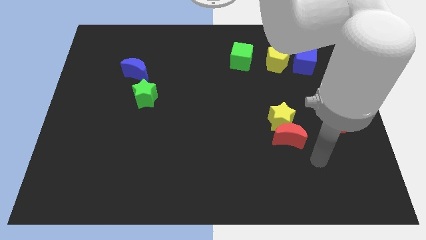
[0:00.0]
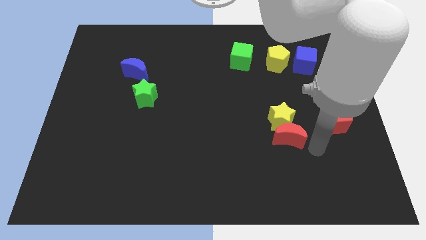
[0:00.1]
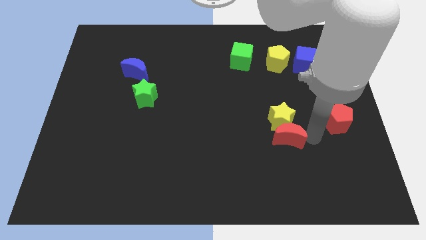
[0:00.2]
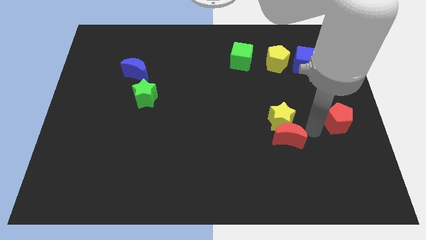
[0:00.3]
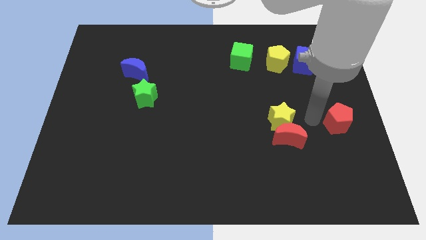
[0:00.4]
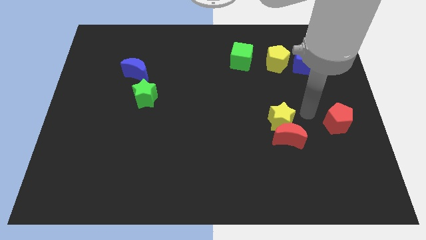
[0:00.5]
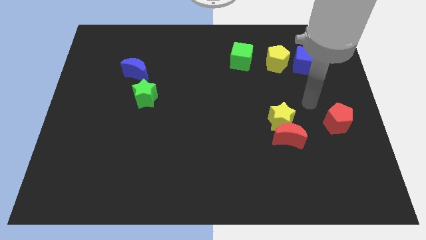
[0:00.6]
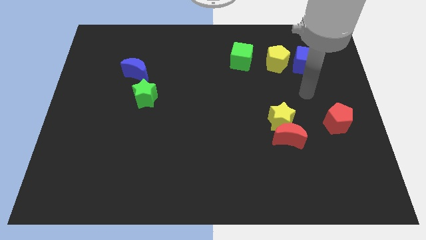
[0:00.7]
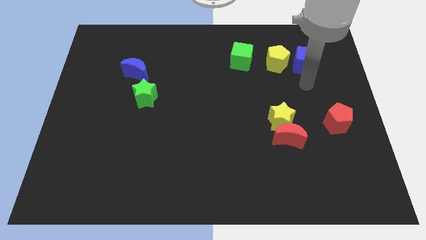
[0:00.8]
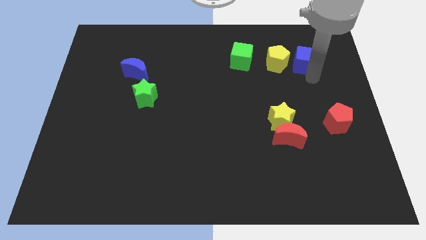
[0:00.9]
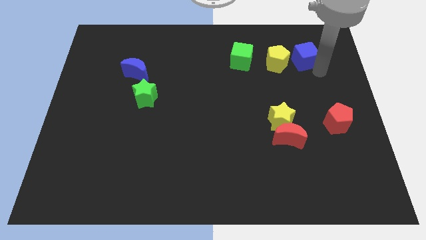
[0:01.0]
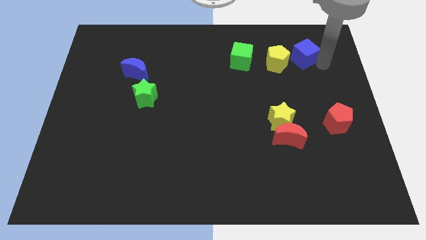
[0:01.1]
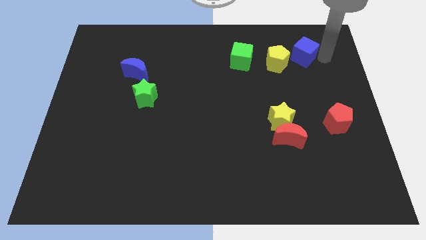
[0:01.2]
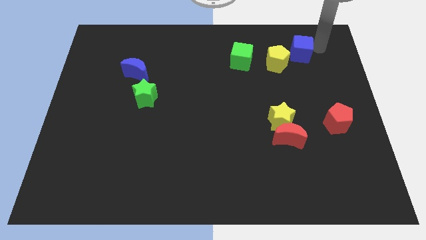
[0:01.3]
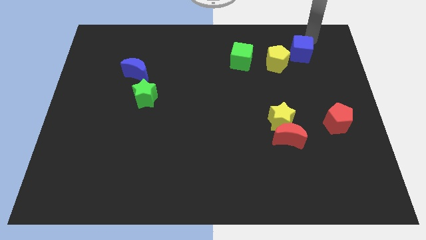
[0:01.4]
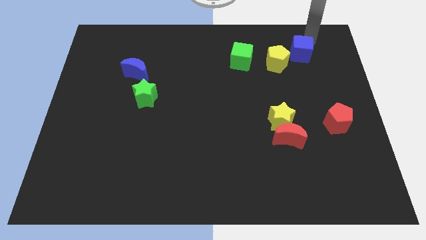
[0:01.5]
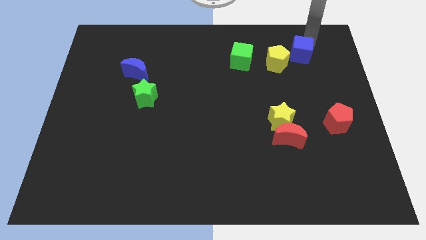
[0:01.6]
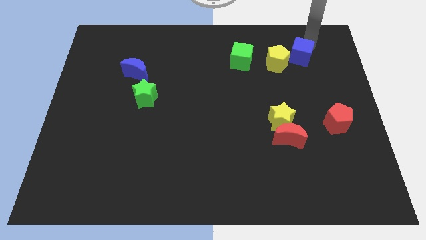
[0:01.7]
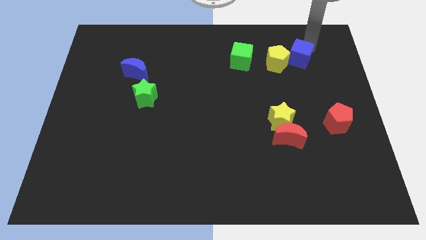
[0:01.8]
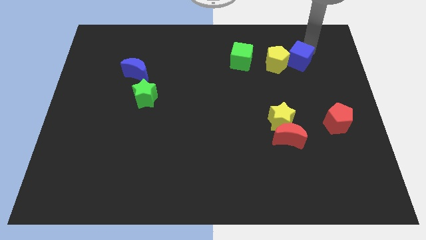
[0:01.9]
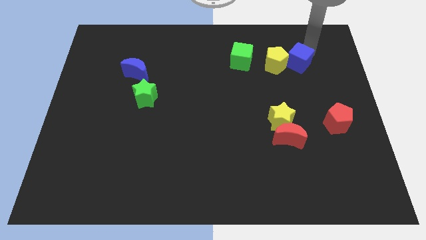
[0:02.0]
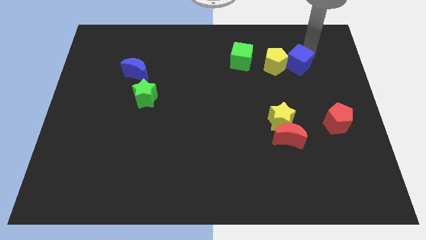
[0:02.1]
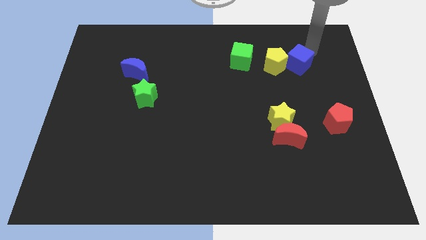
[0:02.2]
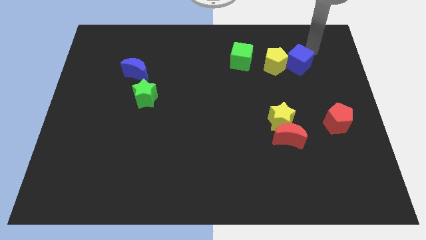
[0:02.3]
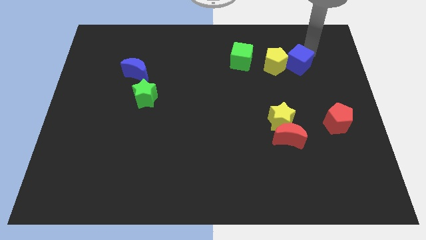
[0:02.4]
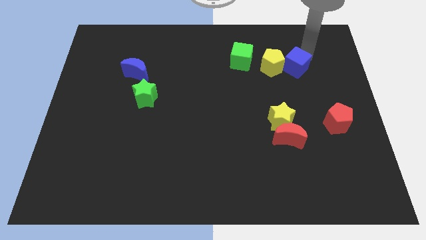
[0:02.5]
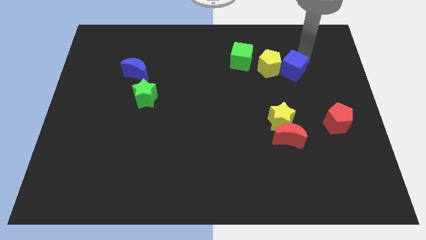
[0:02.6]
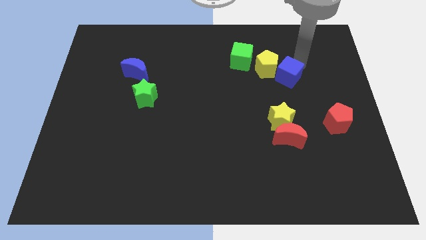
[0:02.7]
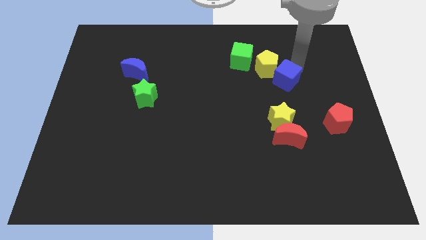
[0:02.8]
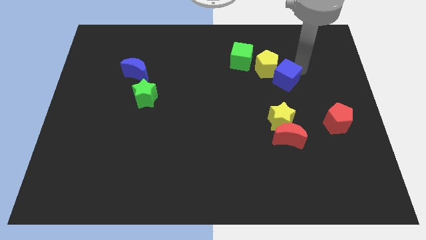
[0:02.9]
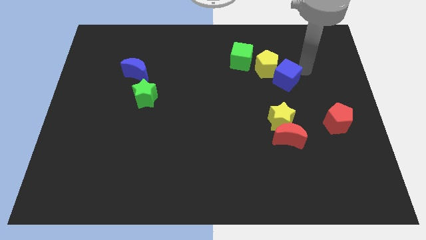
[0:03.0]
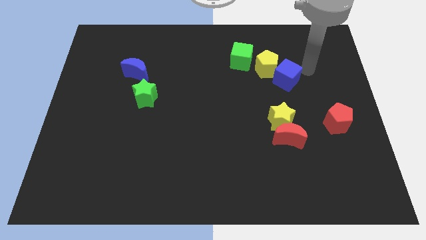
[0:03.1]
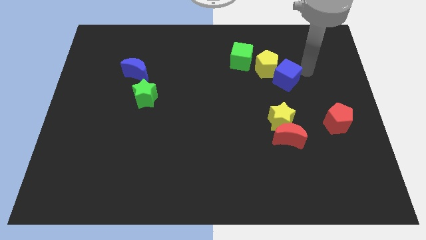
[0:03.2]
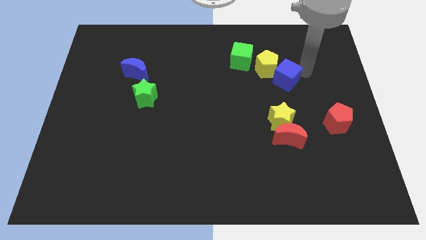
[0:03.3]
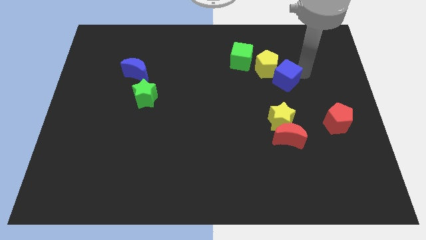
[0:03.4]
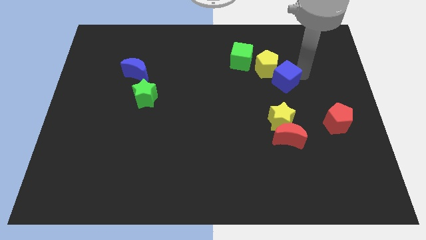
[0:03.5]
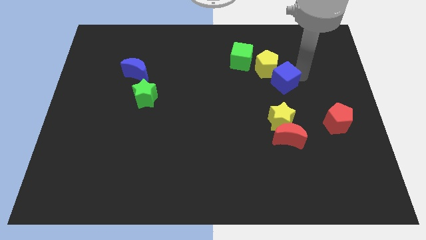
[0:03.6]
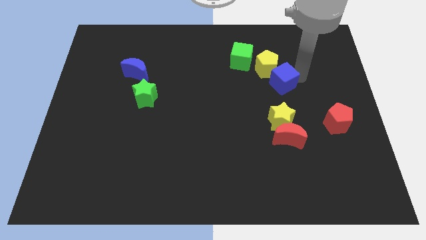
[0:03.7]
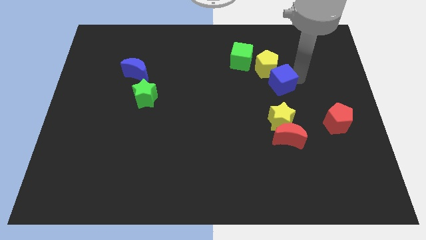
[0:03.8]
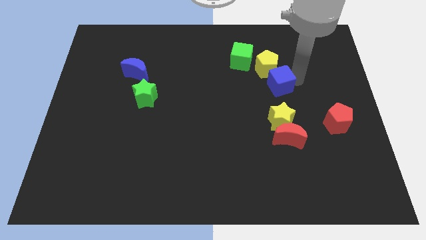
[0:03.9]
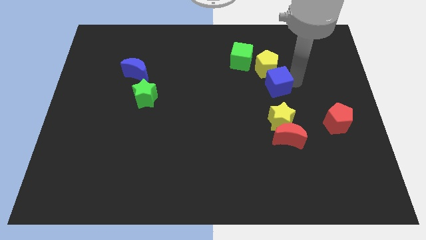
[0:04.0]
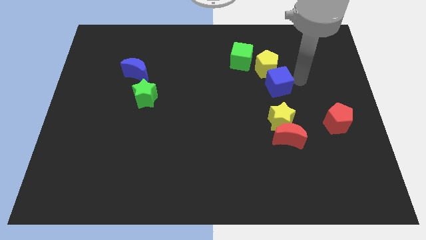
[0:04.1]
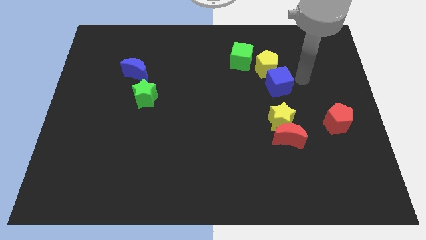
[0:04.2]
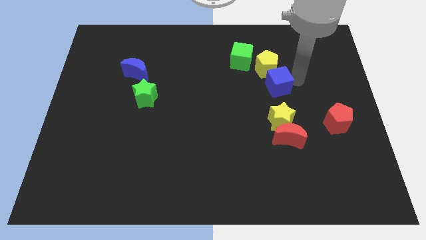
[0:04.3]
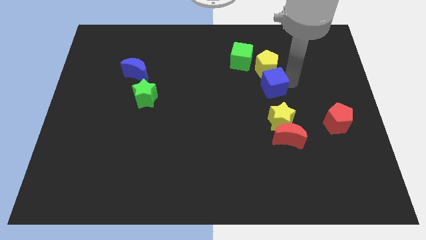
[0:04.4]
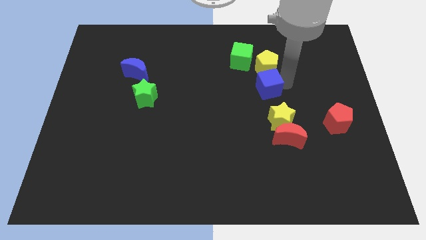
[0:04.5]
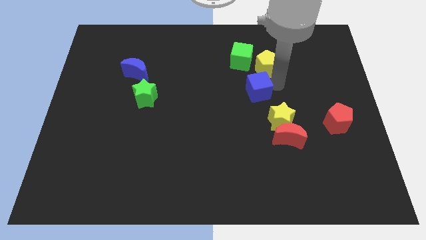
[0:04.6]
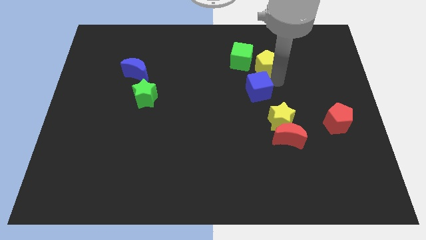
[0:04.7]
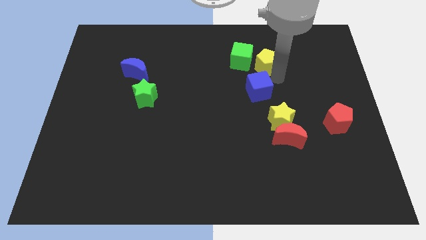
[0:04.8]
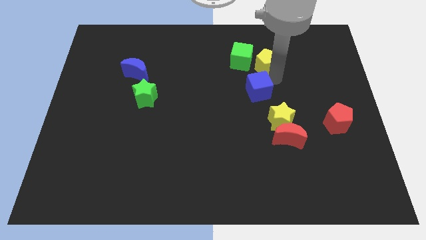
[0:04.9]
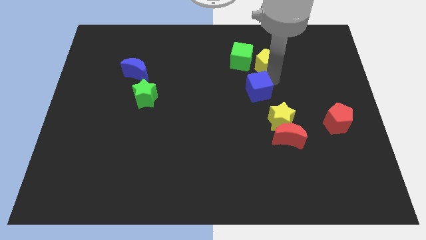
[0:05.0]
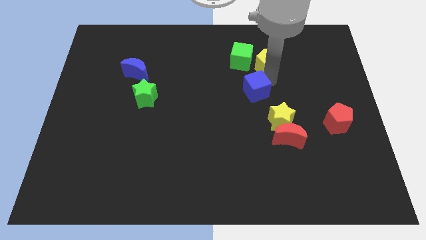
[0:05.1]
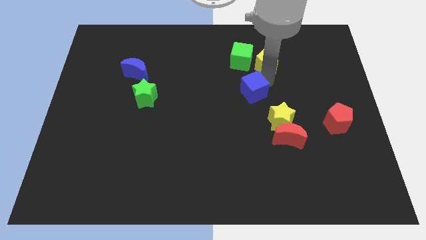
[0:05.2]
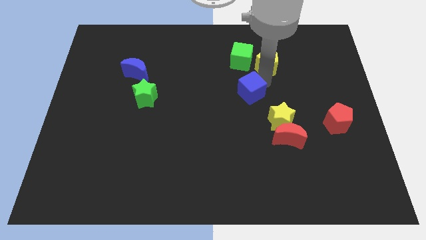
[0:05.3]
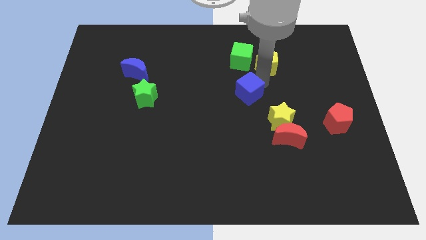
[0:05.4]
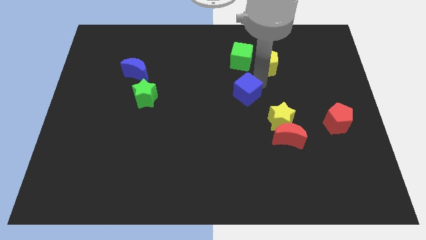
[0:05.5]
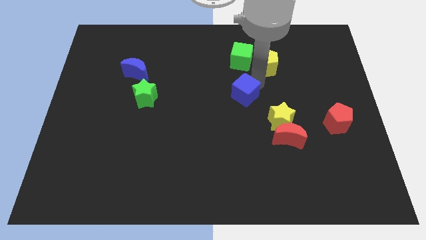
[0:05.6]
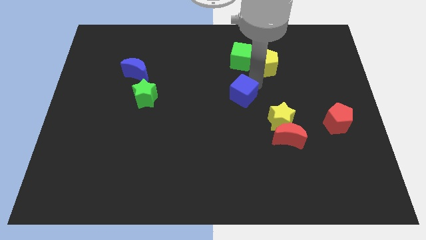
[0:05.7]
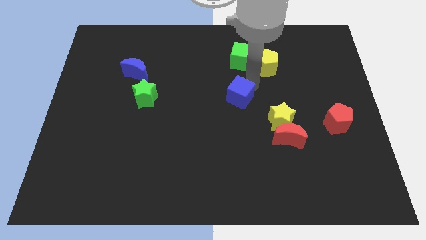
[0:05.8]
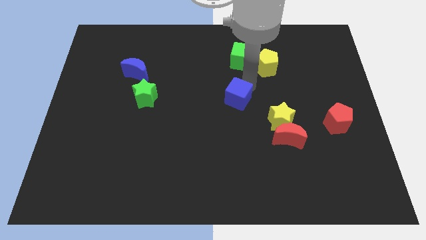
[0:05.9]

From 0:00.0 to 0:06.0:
push the blue cube downwards and to the left

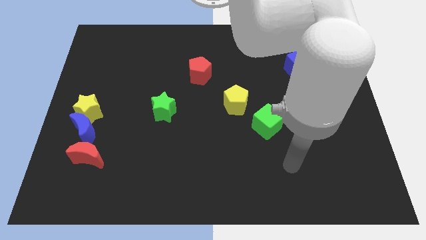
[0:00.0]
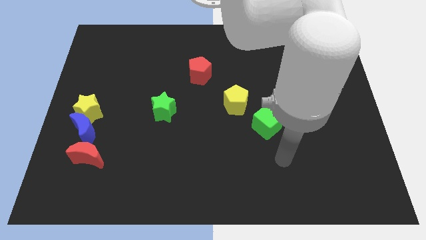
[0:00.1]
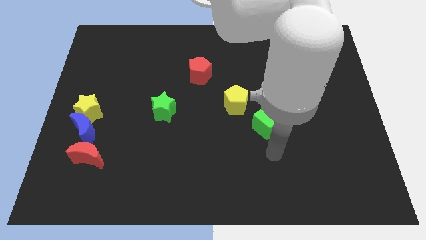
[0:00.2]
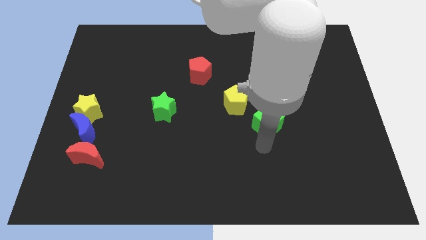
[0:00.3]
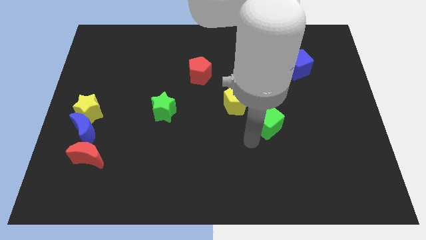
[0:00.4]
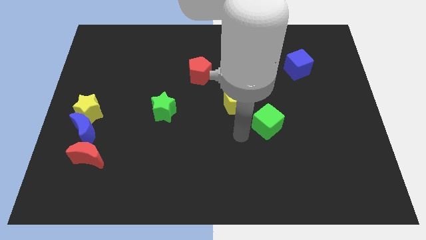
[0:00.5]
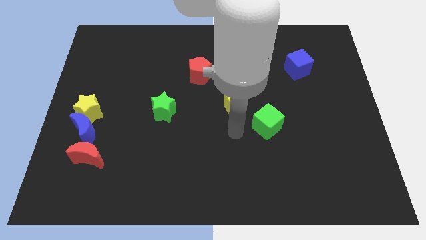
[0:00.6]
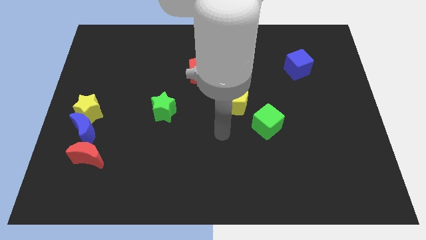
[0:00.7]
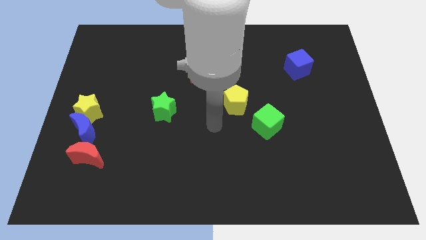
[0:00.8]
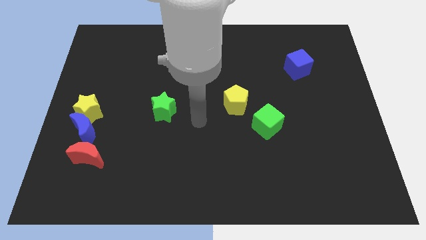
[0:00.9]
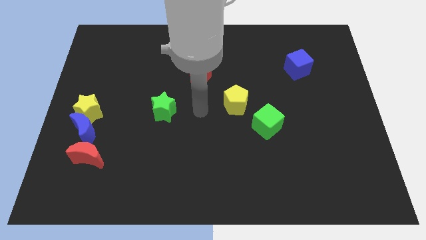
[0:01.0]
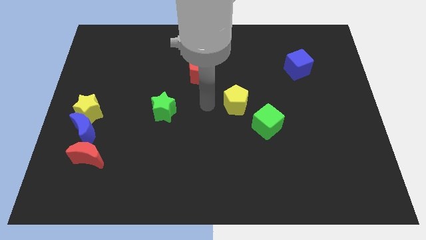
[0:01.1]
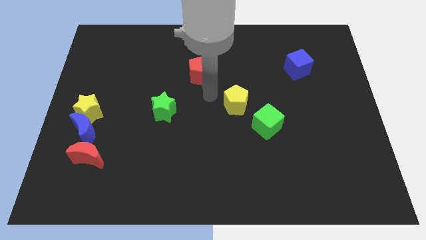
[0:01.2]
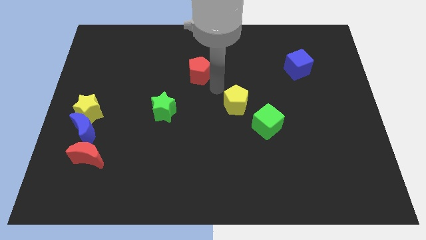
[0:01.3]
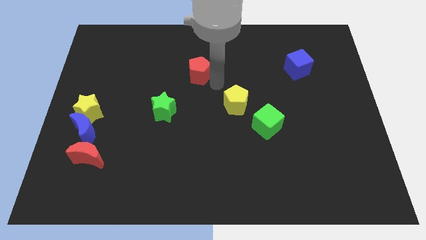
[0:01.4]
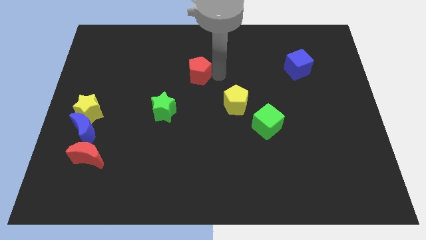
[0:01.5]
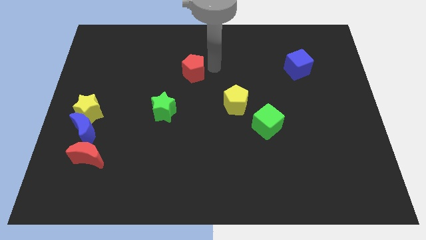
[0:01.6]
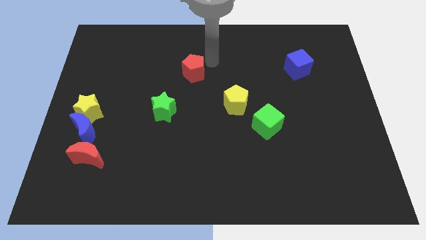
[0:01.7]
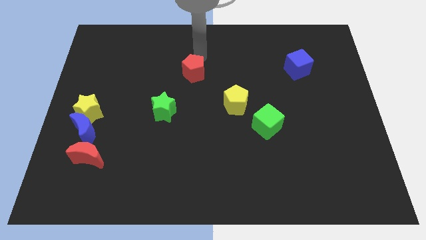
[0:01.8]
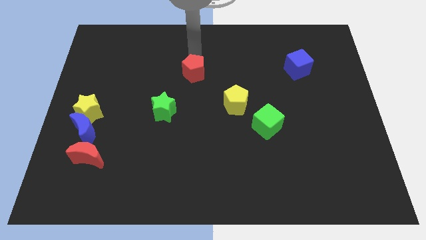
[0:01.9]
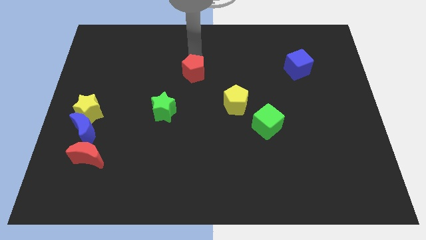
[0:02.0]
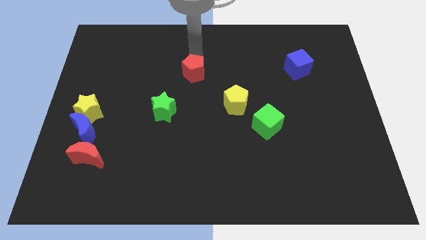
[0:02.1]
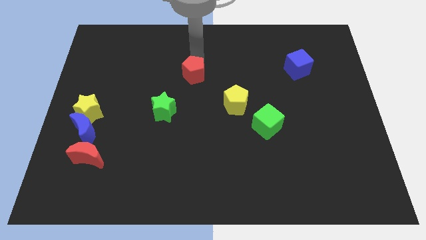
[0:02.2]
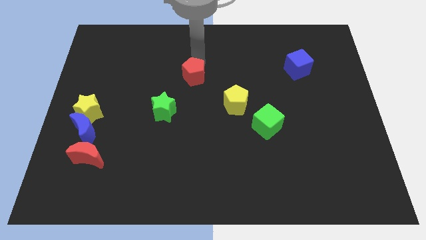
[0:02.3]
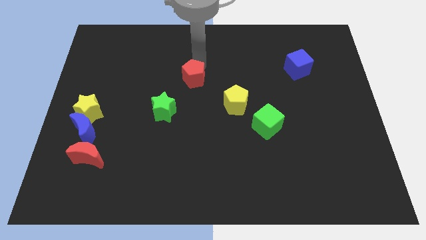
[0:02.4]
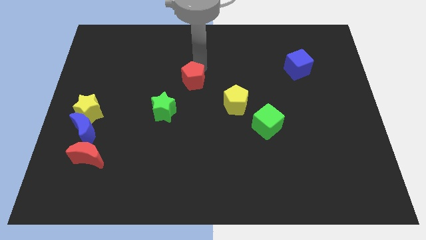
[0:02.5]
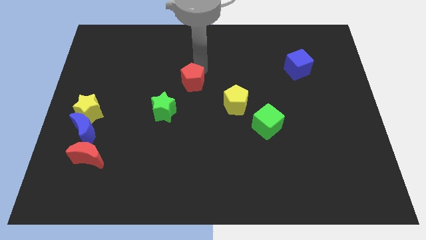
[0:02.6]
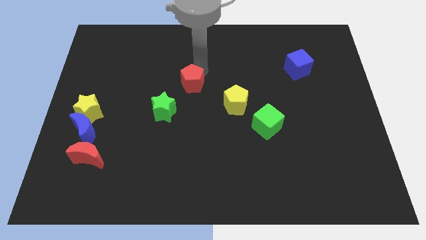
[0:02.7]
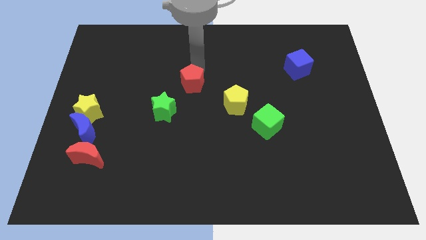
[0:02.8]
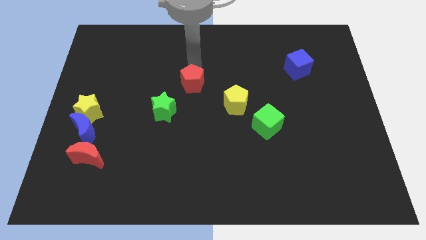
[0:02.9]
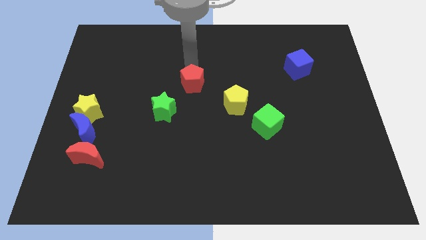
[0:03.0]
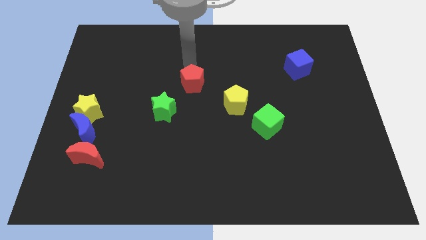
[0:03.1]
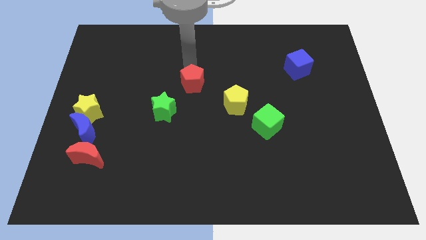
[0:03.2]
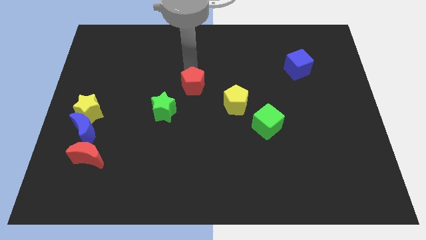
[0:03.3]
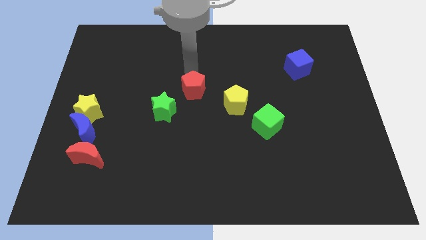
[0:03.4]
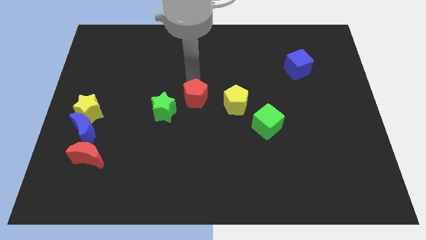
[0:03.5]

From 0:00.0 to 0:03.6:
move the red pentagon a little downwards
